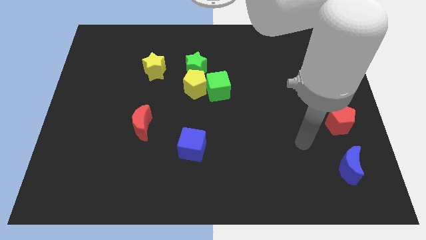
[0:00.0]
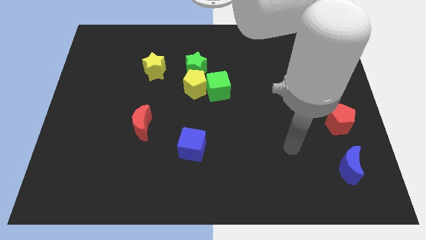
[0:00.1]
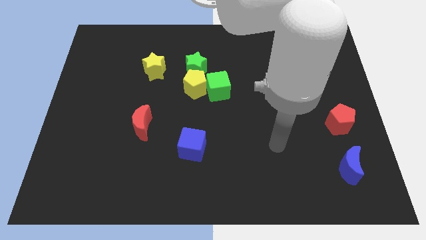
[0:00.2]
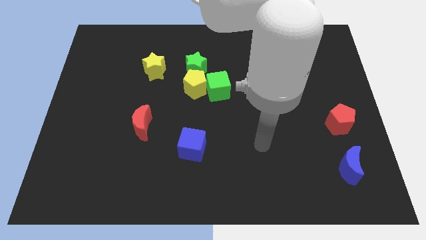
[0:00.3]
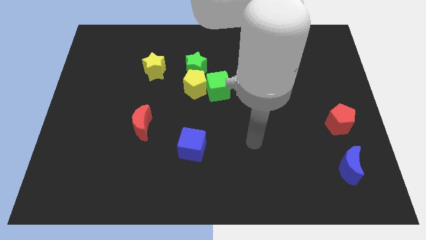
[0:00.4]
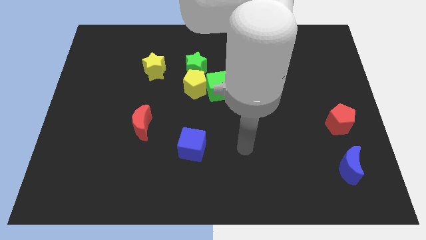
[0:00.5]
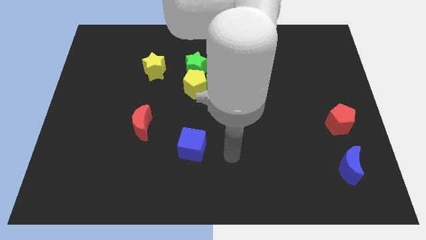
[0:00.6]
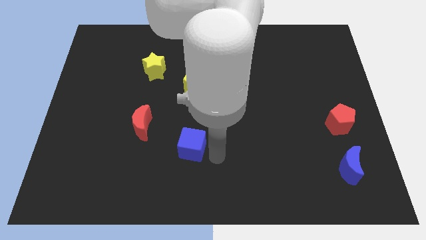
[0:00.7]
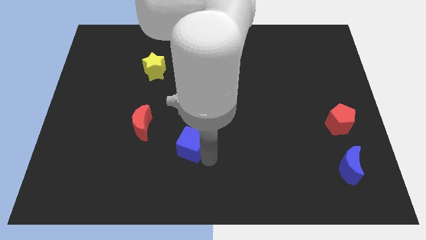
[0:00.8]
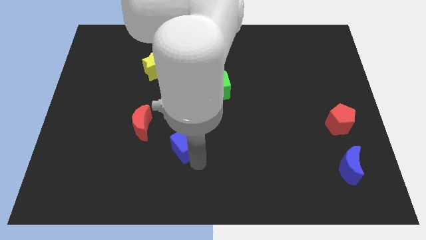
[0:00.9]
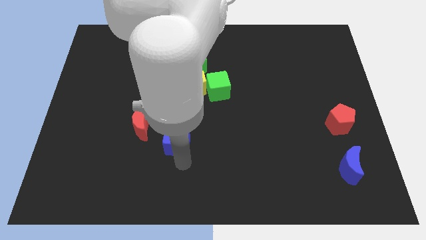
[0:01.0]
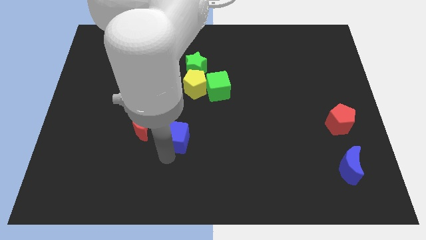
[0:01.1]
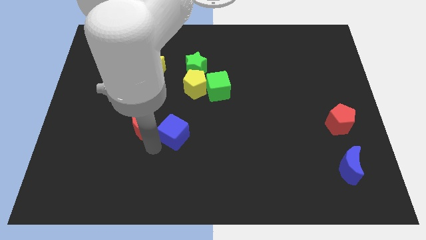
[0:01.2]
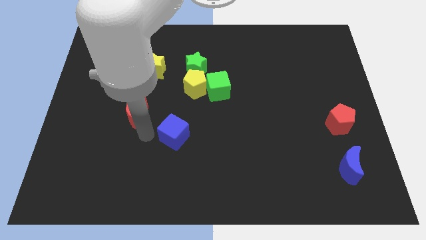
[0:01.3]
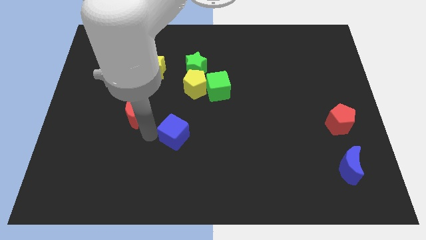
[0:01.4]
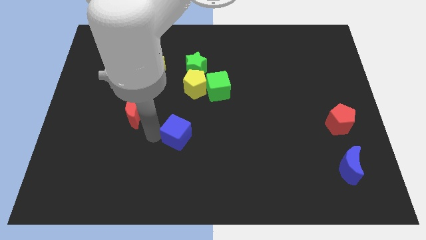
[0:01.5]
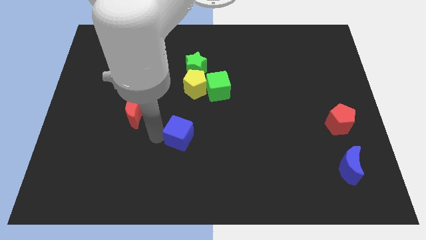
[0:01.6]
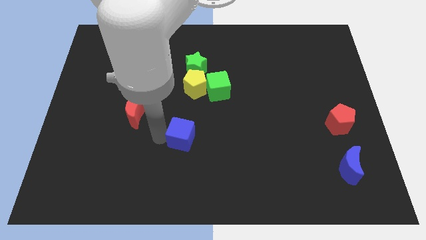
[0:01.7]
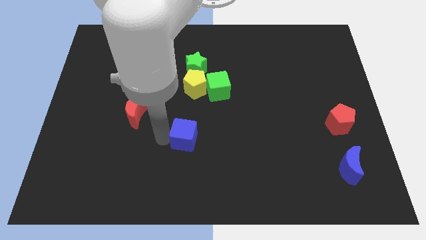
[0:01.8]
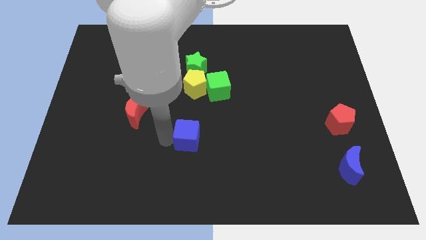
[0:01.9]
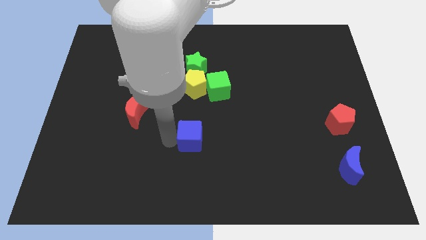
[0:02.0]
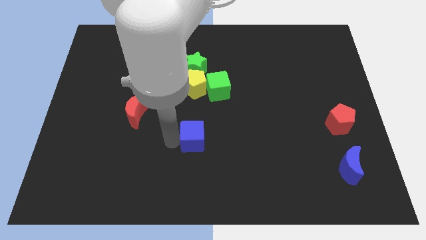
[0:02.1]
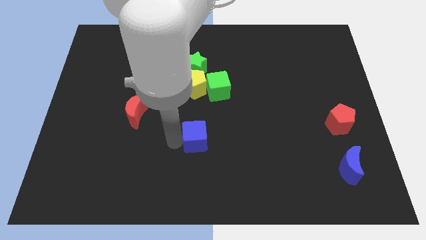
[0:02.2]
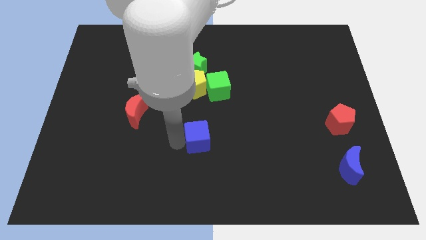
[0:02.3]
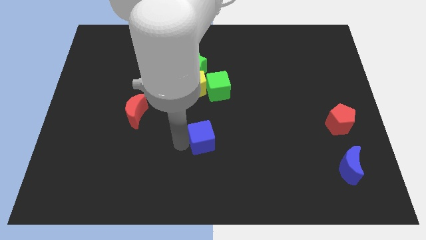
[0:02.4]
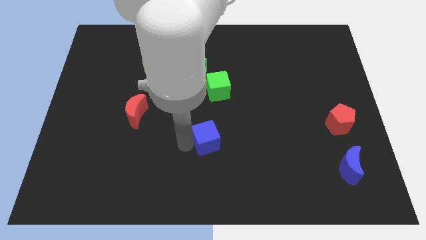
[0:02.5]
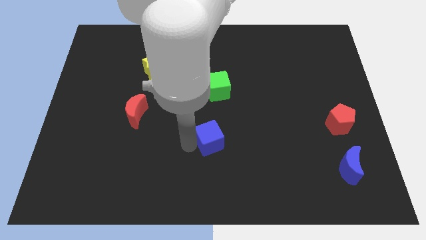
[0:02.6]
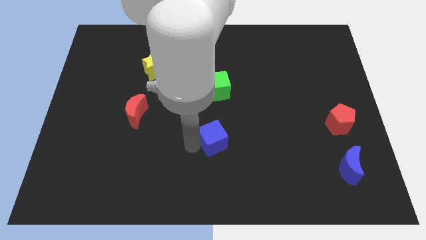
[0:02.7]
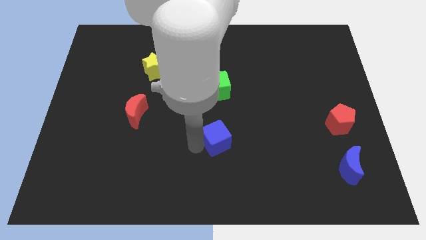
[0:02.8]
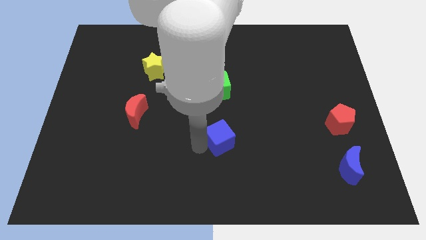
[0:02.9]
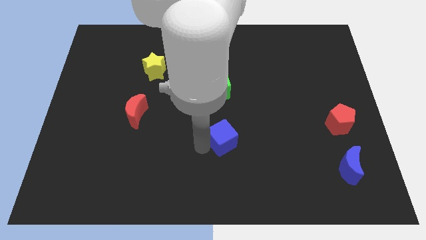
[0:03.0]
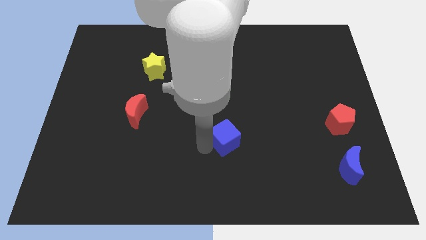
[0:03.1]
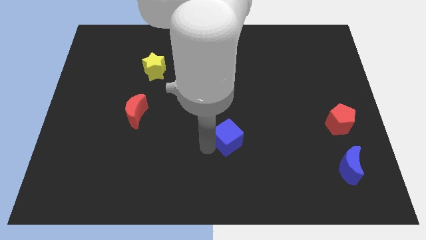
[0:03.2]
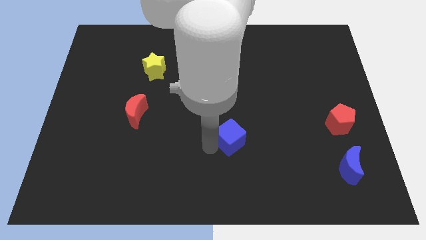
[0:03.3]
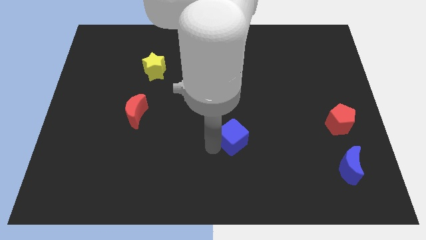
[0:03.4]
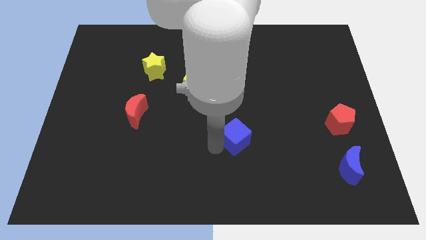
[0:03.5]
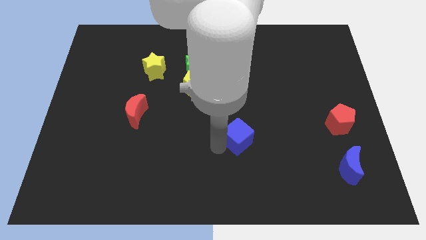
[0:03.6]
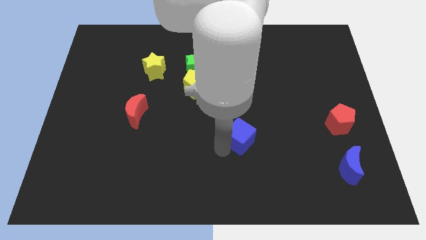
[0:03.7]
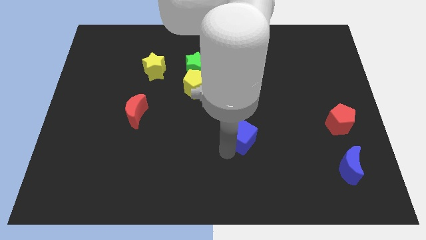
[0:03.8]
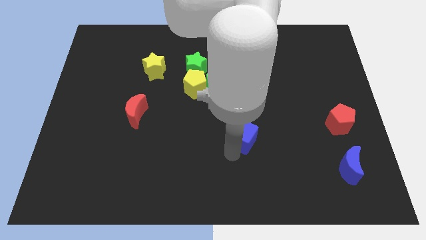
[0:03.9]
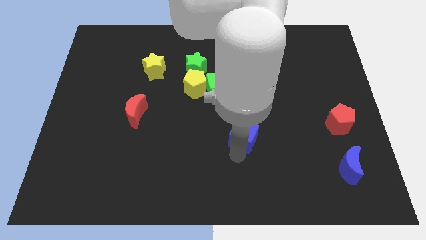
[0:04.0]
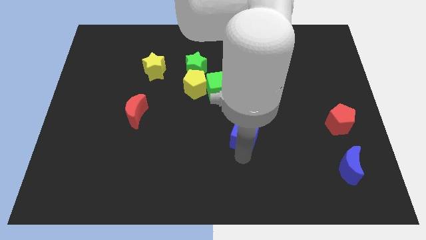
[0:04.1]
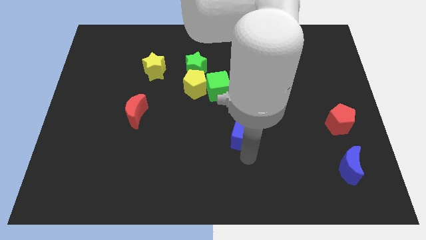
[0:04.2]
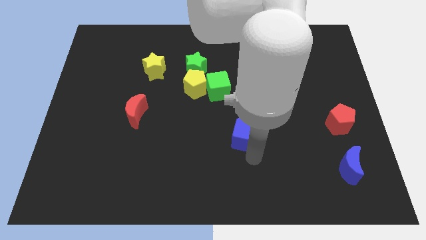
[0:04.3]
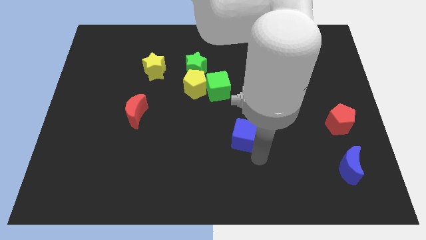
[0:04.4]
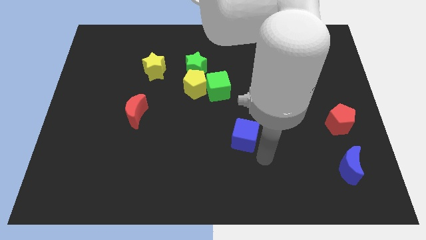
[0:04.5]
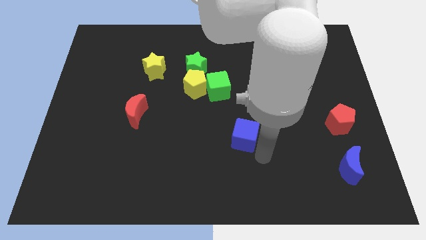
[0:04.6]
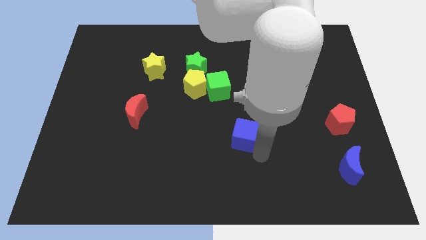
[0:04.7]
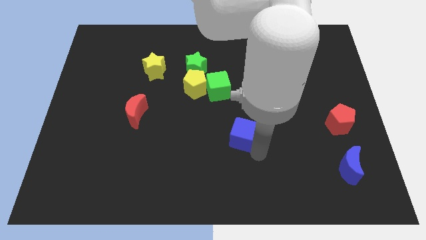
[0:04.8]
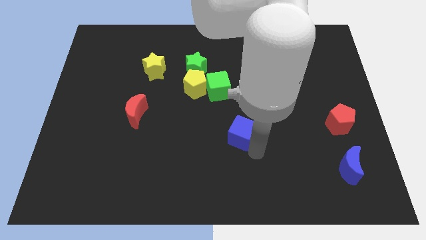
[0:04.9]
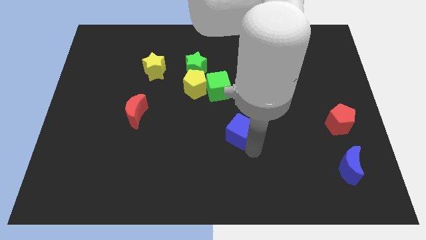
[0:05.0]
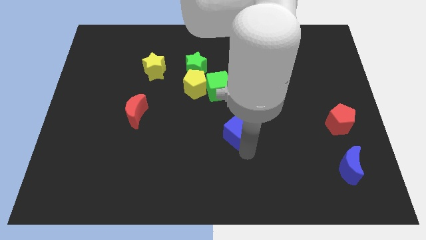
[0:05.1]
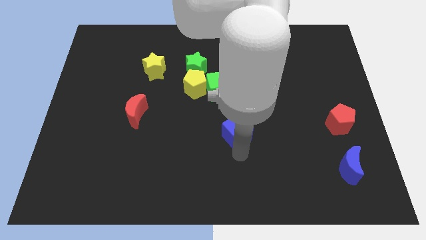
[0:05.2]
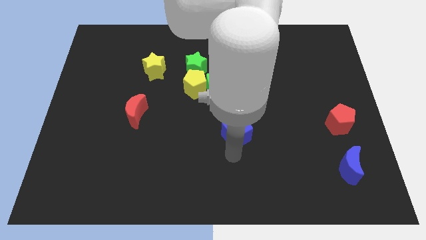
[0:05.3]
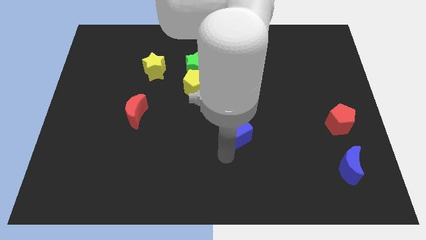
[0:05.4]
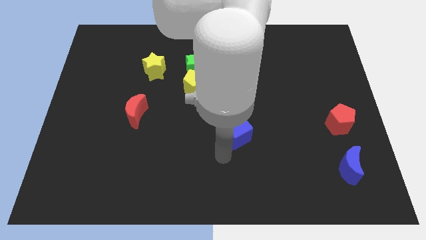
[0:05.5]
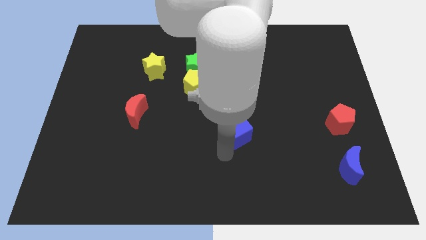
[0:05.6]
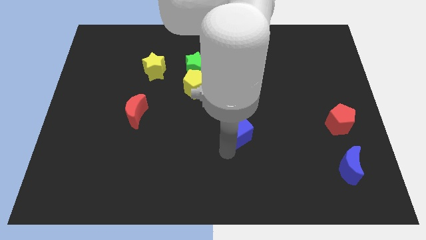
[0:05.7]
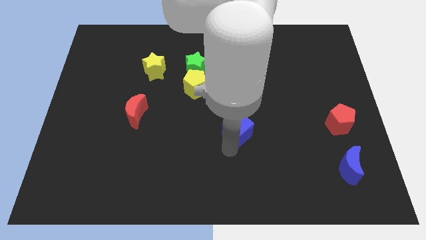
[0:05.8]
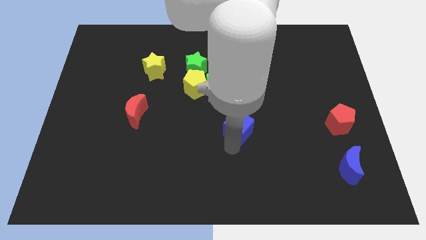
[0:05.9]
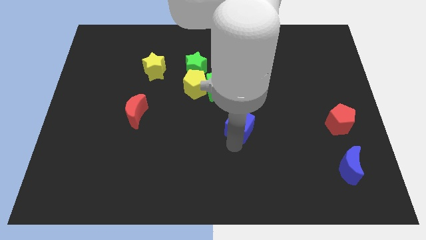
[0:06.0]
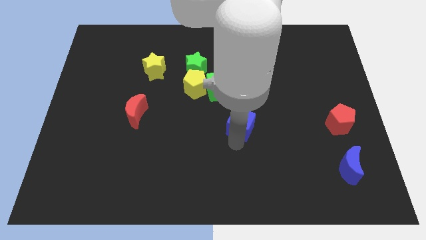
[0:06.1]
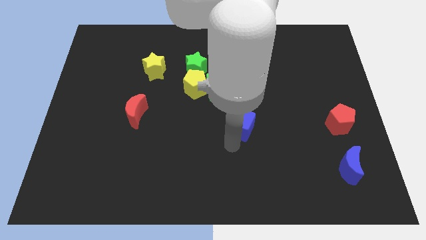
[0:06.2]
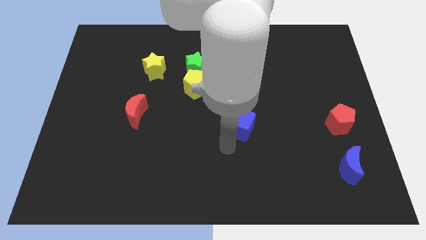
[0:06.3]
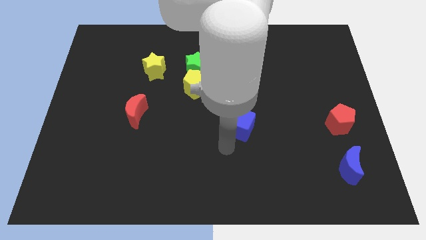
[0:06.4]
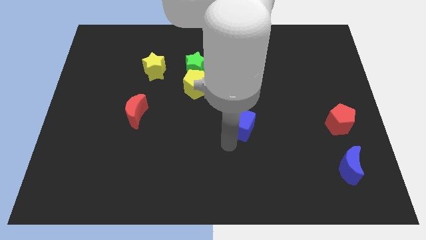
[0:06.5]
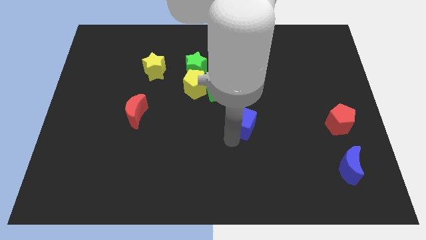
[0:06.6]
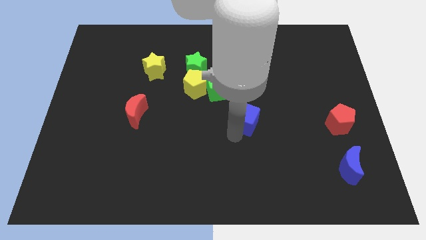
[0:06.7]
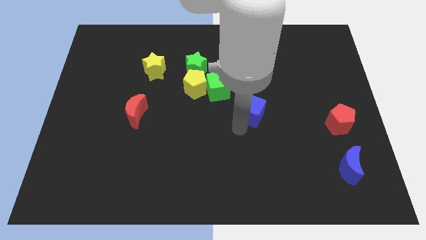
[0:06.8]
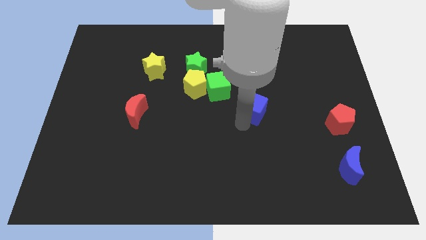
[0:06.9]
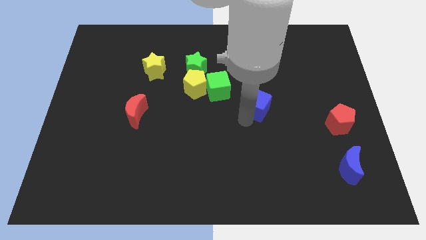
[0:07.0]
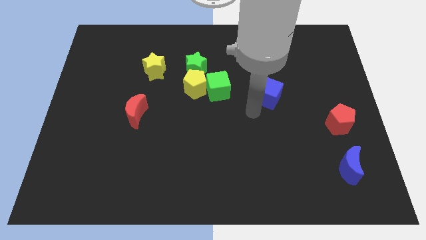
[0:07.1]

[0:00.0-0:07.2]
push the blue cube upwards and then to the right

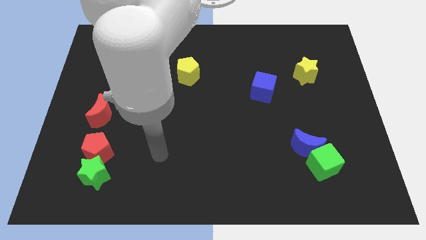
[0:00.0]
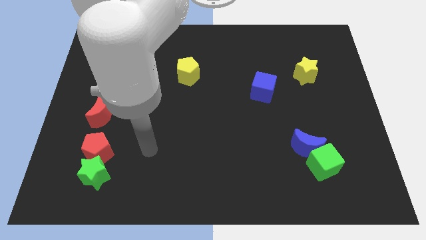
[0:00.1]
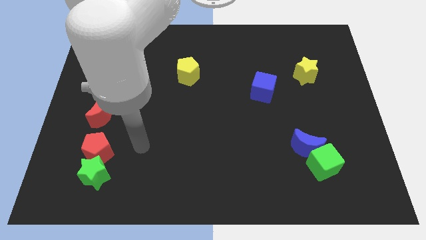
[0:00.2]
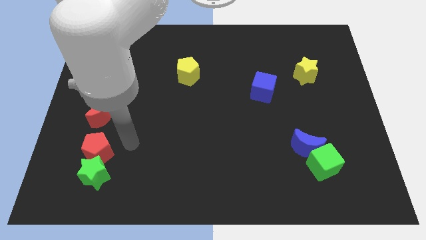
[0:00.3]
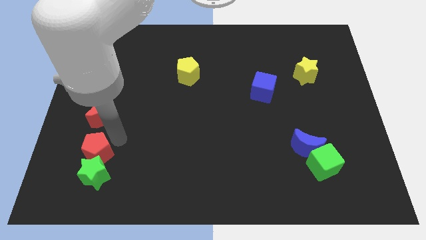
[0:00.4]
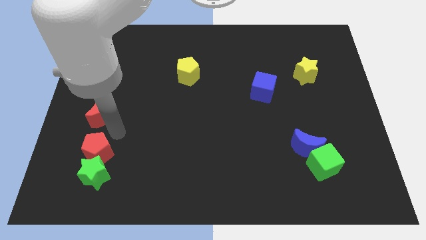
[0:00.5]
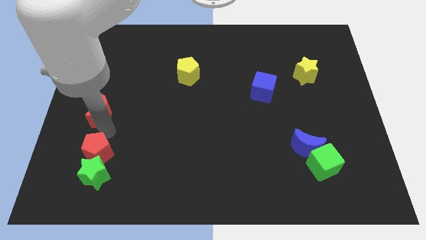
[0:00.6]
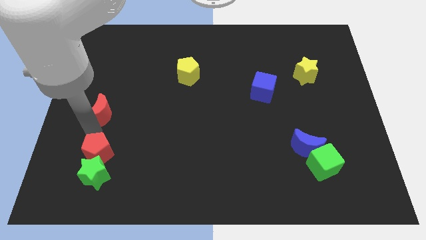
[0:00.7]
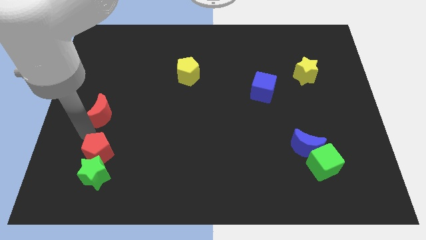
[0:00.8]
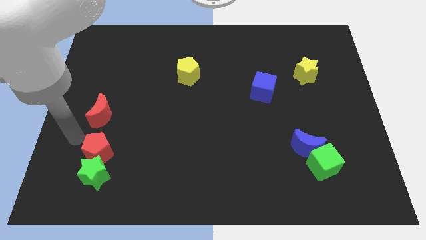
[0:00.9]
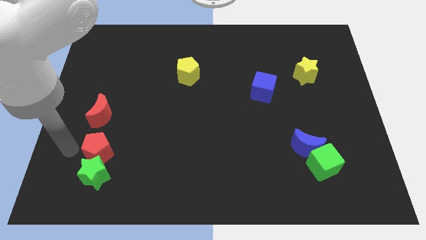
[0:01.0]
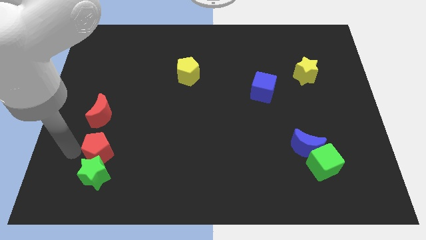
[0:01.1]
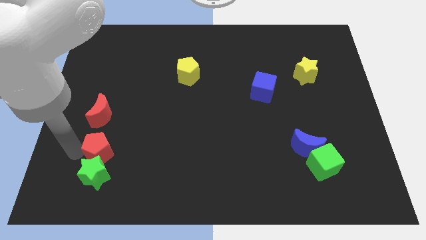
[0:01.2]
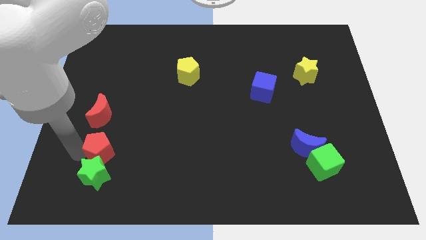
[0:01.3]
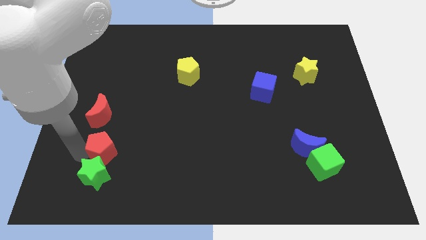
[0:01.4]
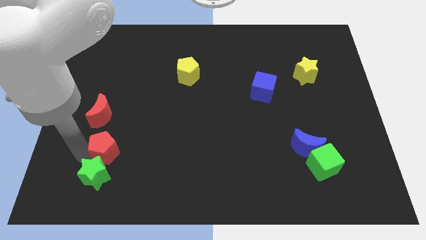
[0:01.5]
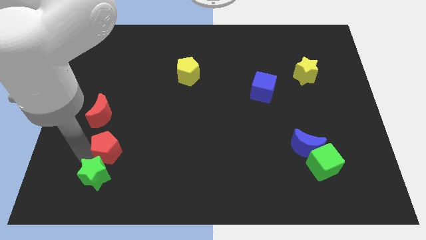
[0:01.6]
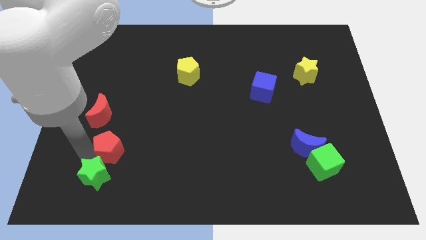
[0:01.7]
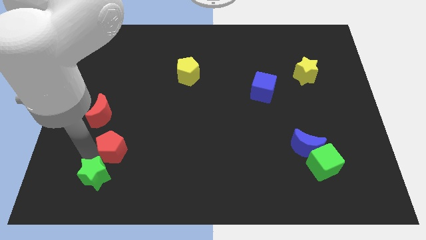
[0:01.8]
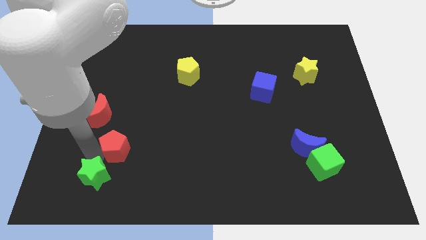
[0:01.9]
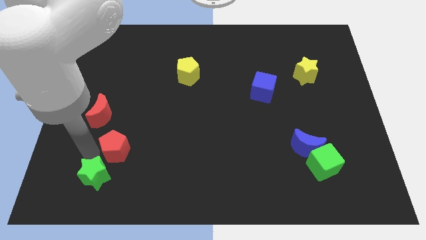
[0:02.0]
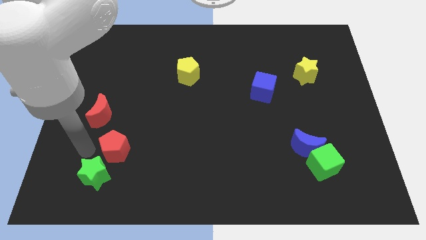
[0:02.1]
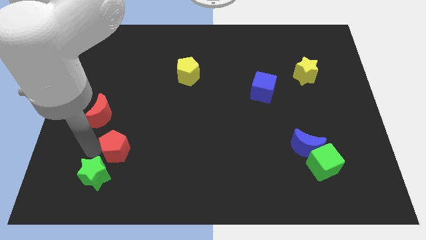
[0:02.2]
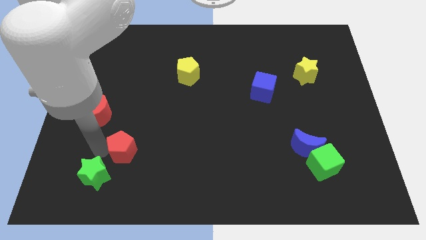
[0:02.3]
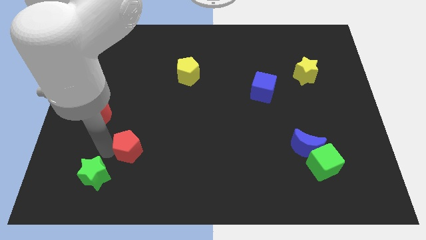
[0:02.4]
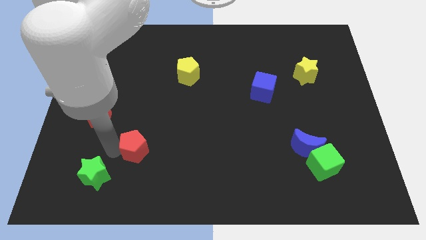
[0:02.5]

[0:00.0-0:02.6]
move the red pentagon slightly to the right
